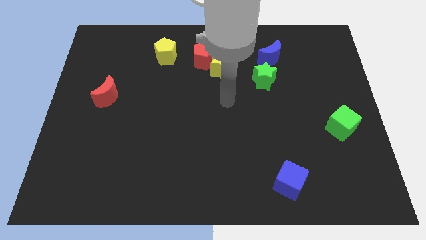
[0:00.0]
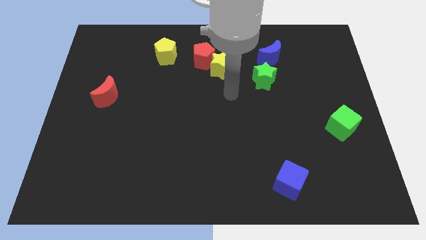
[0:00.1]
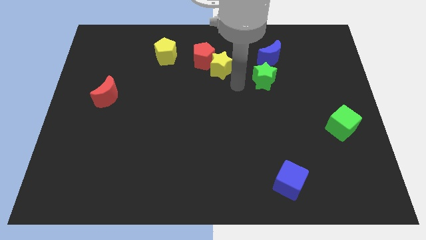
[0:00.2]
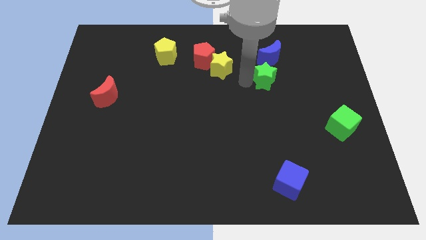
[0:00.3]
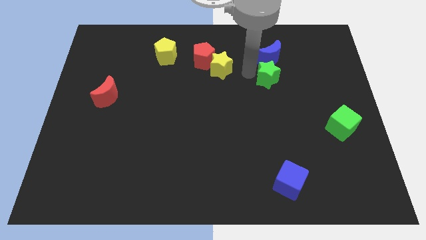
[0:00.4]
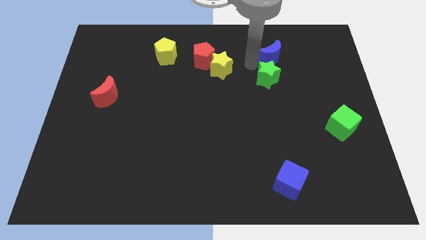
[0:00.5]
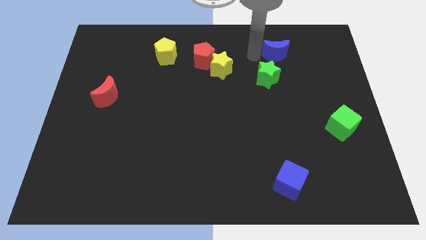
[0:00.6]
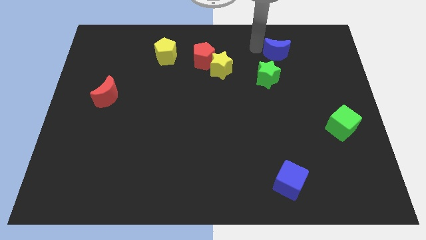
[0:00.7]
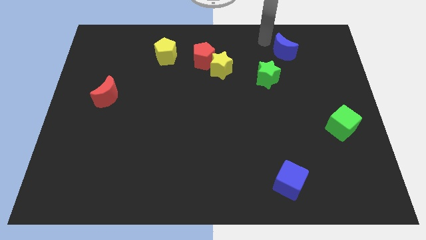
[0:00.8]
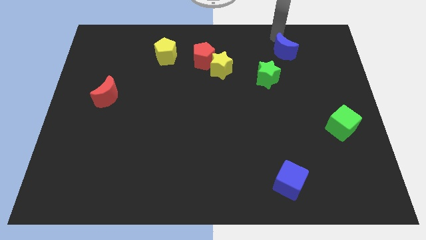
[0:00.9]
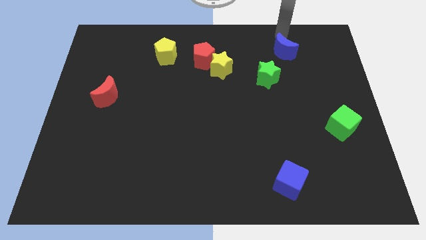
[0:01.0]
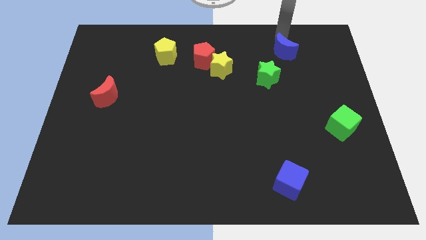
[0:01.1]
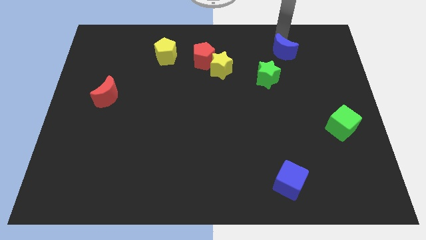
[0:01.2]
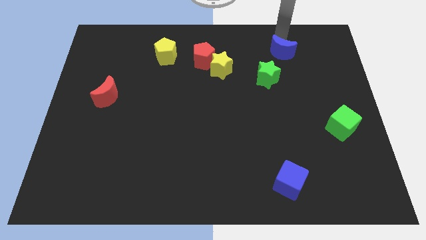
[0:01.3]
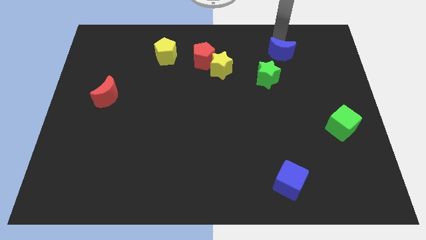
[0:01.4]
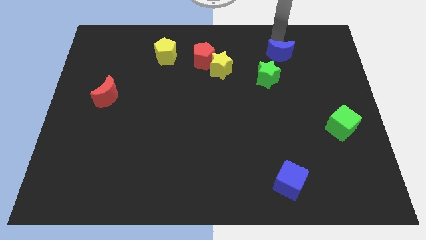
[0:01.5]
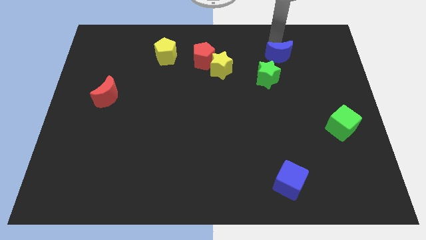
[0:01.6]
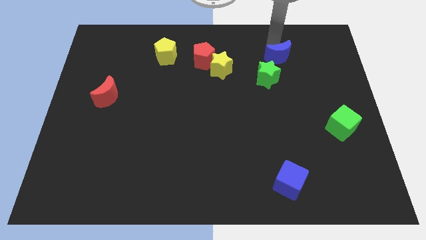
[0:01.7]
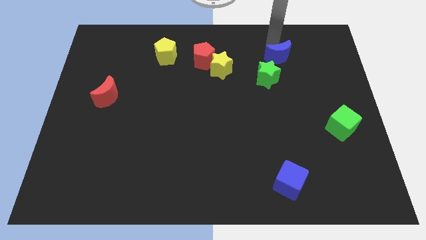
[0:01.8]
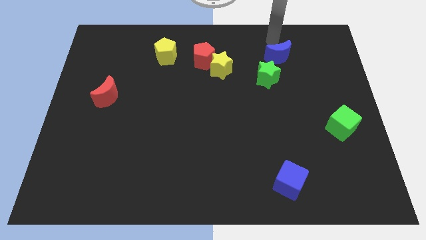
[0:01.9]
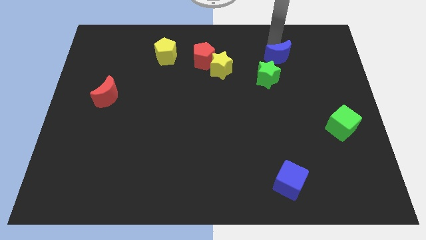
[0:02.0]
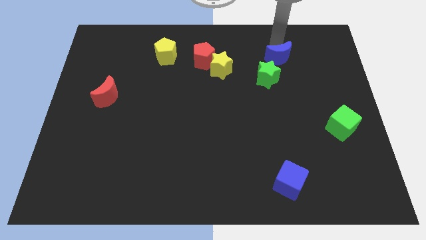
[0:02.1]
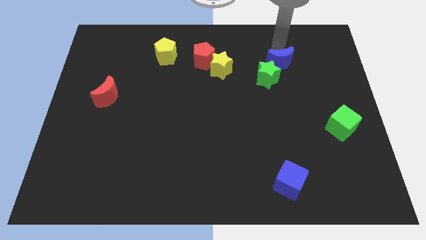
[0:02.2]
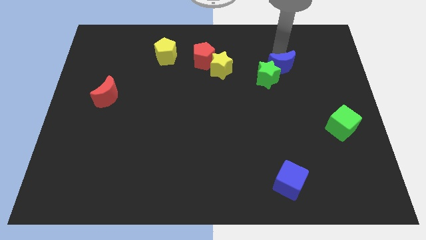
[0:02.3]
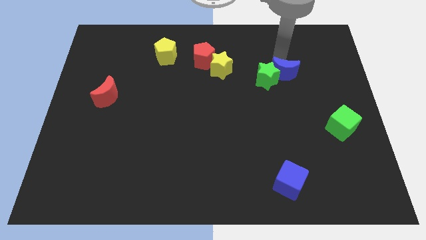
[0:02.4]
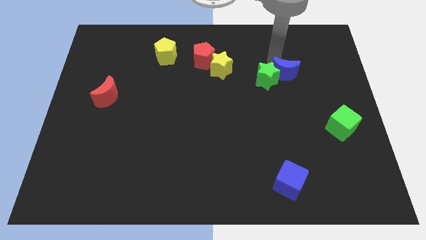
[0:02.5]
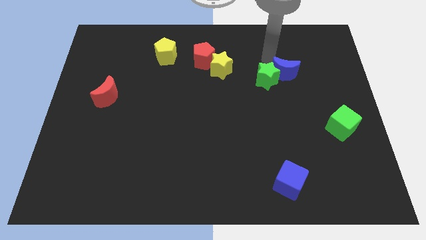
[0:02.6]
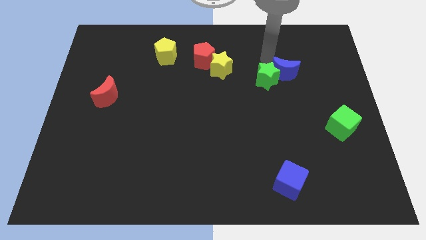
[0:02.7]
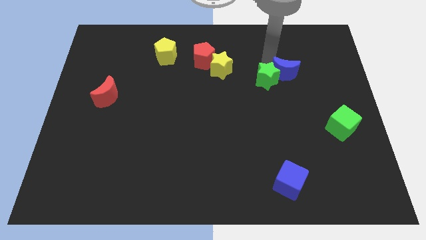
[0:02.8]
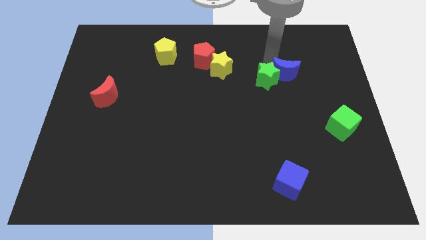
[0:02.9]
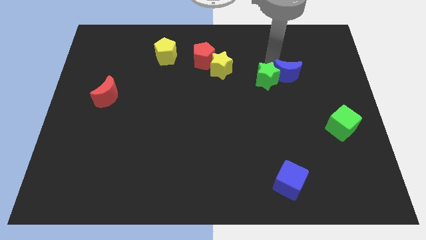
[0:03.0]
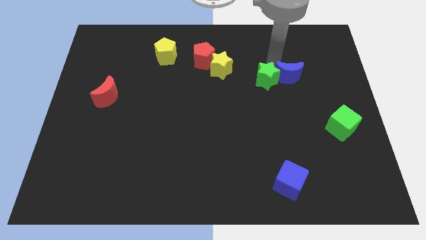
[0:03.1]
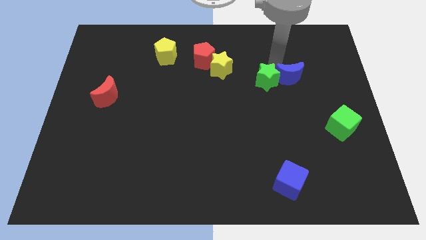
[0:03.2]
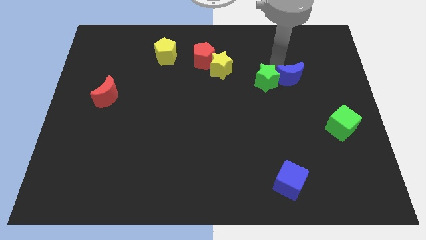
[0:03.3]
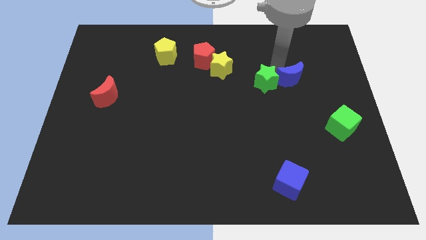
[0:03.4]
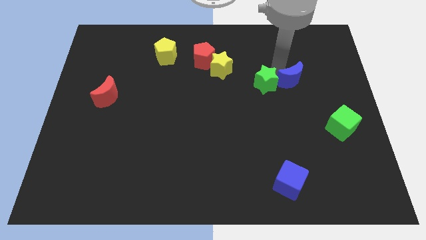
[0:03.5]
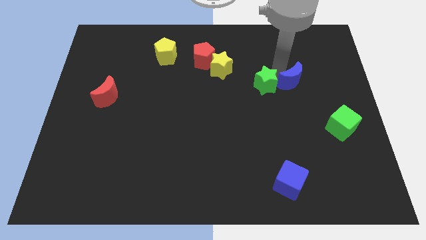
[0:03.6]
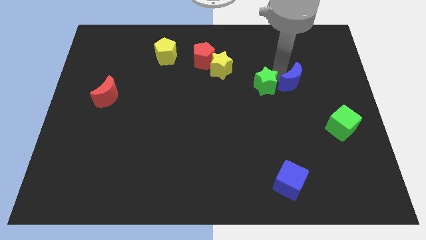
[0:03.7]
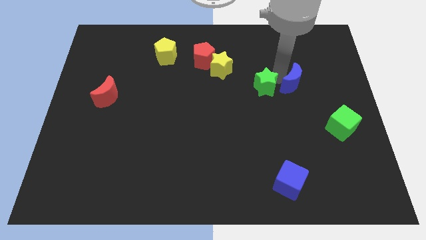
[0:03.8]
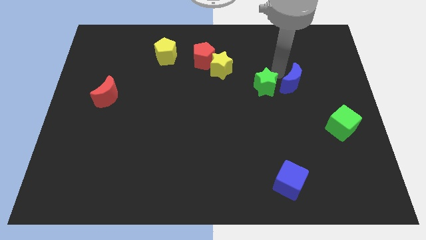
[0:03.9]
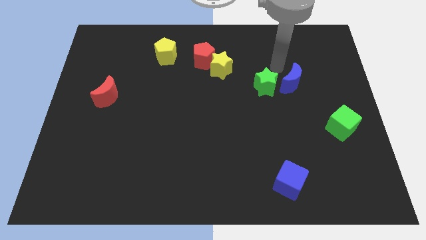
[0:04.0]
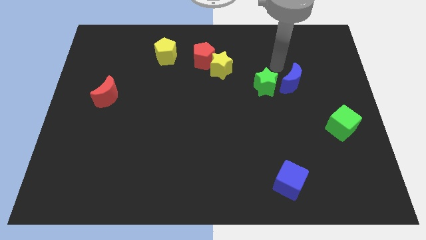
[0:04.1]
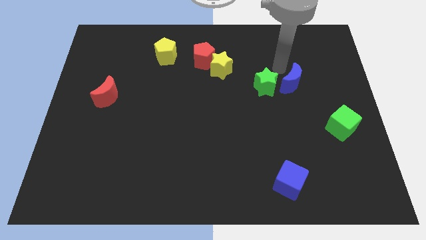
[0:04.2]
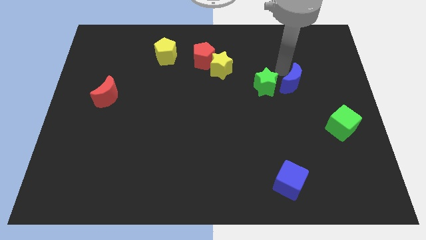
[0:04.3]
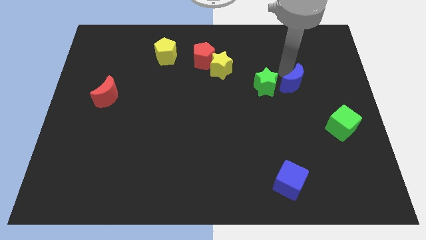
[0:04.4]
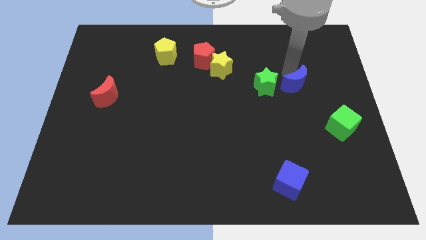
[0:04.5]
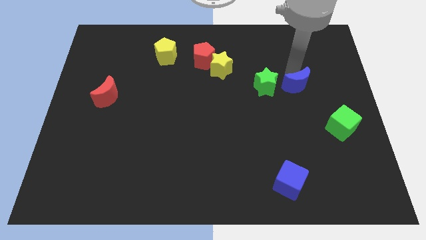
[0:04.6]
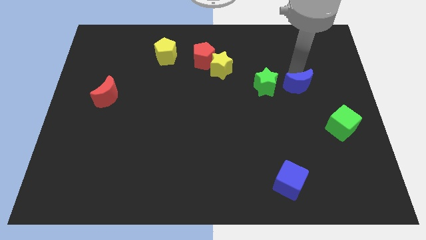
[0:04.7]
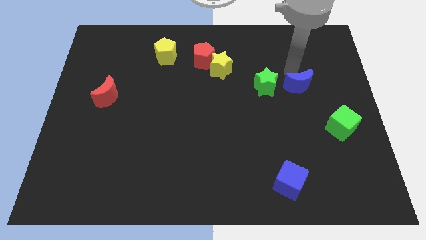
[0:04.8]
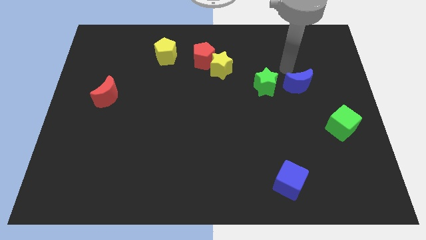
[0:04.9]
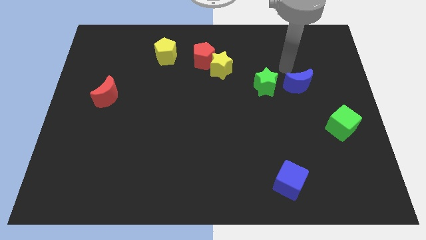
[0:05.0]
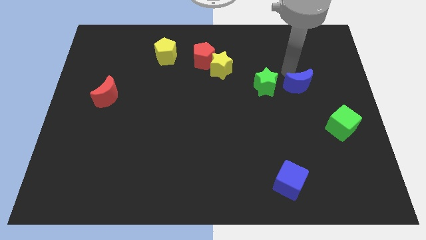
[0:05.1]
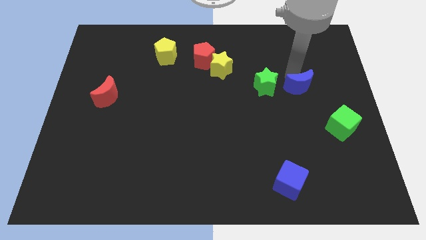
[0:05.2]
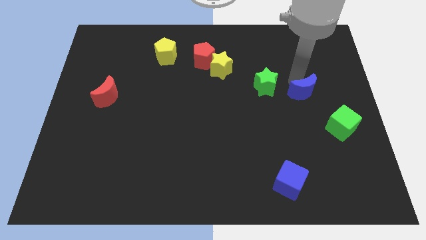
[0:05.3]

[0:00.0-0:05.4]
move the blue moon to the top left of the green cube

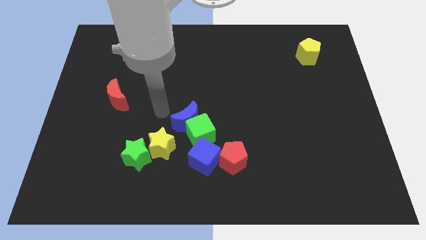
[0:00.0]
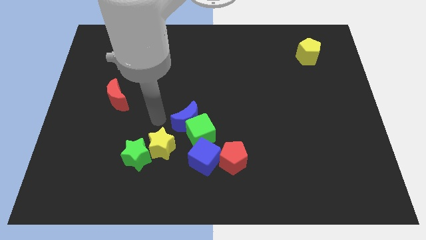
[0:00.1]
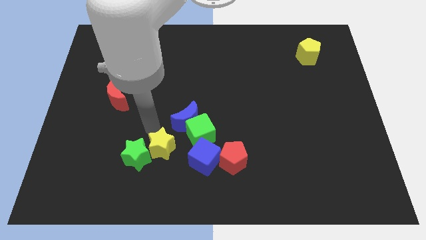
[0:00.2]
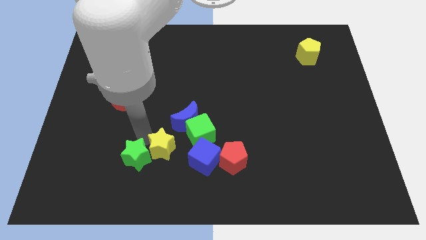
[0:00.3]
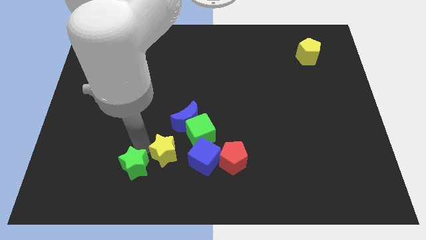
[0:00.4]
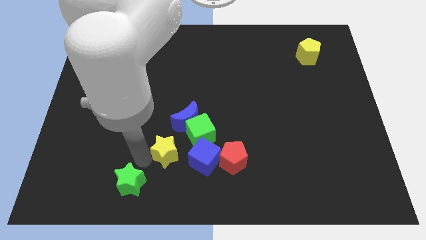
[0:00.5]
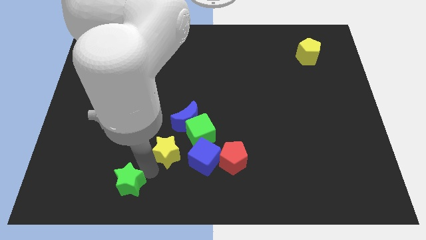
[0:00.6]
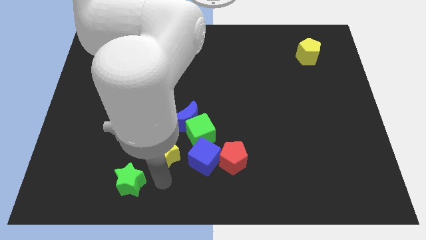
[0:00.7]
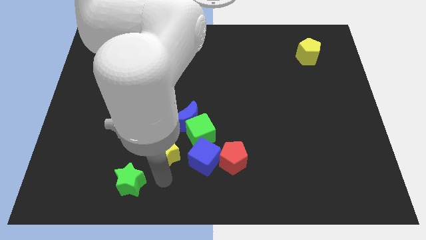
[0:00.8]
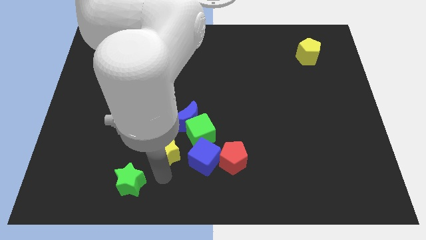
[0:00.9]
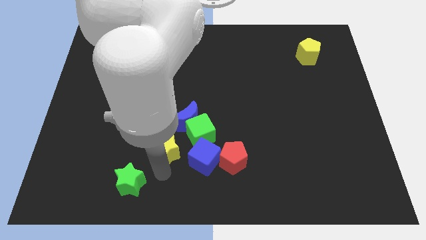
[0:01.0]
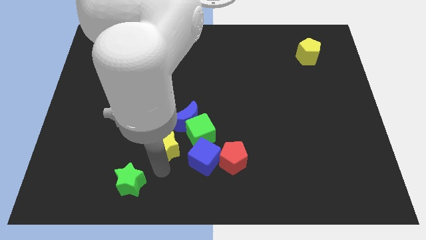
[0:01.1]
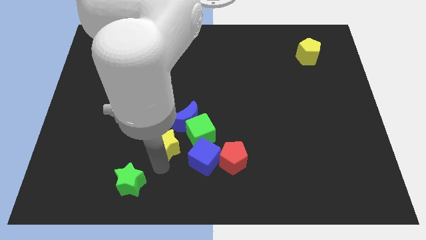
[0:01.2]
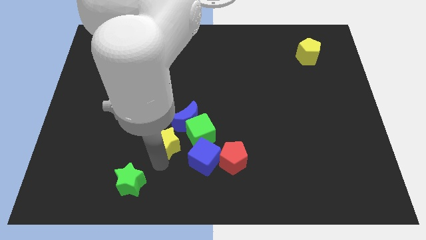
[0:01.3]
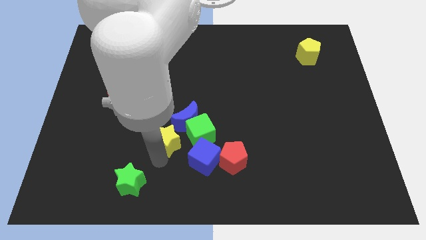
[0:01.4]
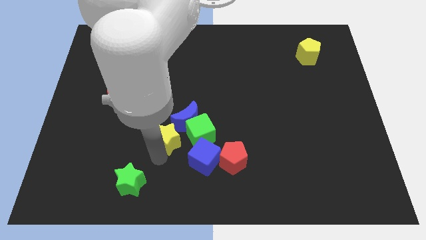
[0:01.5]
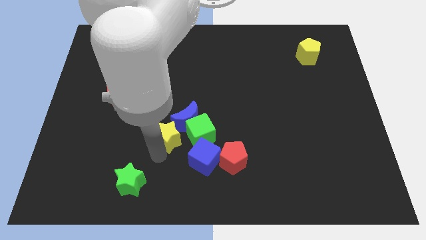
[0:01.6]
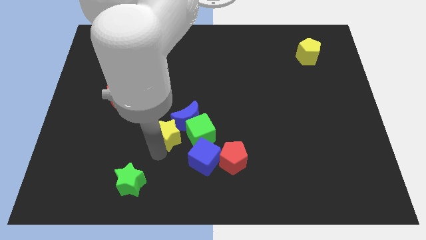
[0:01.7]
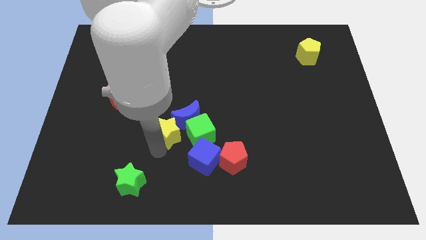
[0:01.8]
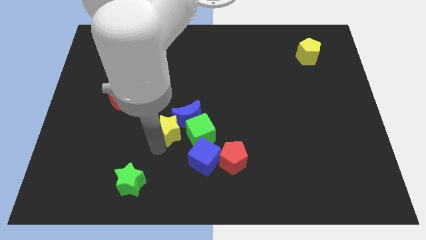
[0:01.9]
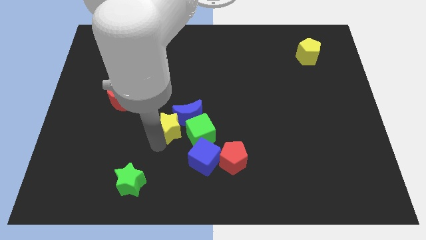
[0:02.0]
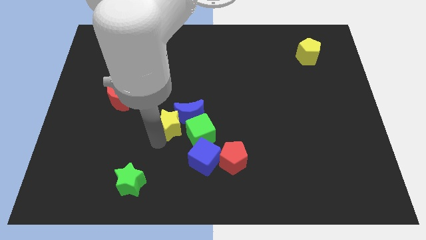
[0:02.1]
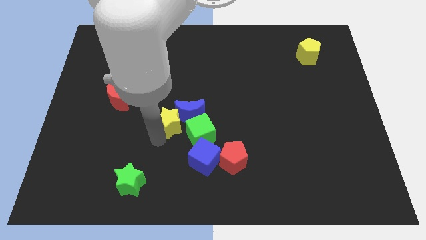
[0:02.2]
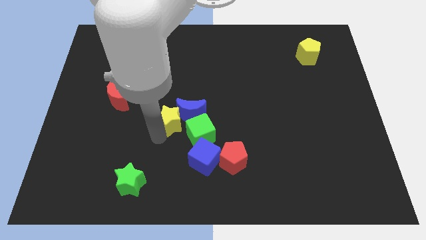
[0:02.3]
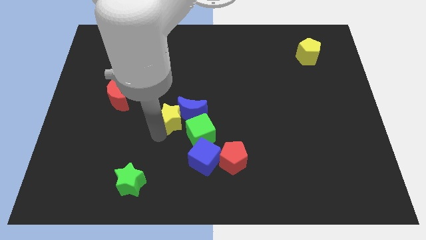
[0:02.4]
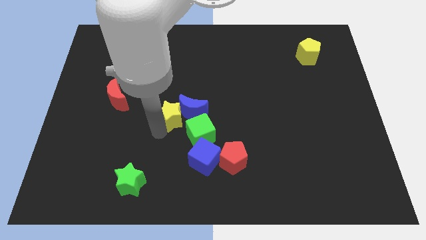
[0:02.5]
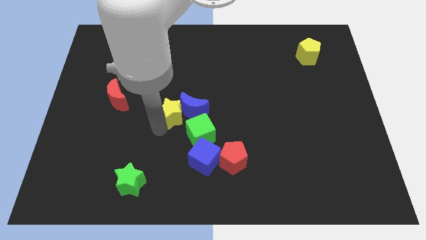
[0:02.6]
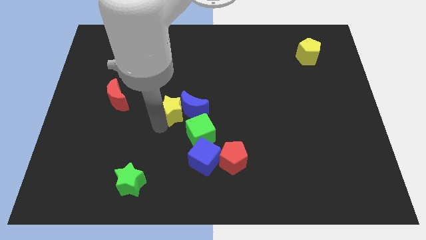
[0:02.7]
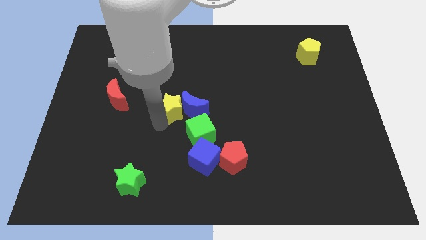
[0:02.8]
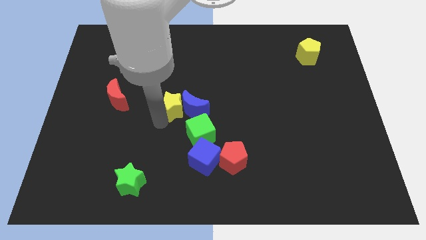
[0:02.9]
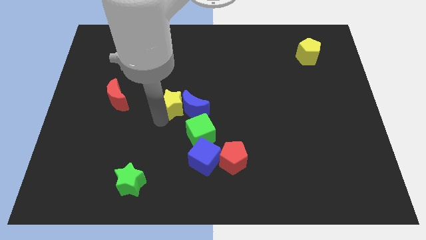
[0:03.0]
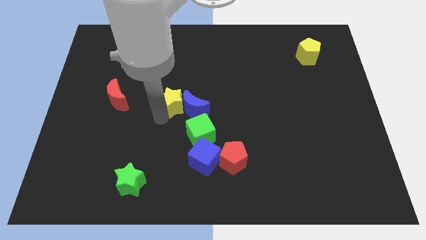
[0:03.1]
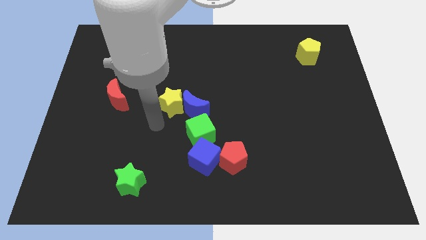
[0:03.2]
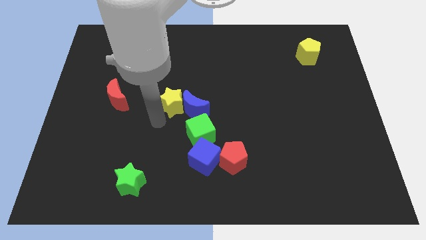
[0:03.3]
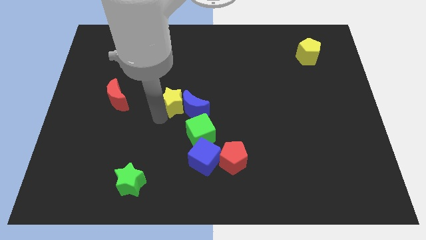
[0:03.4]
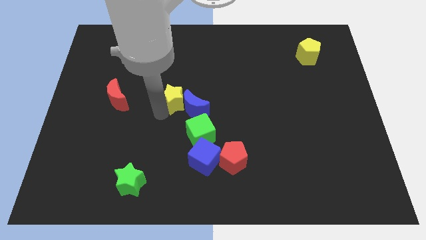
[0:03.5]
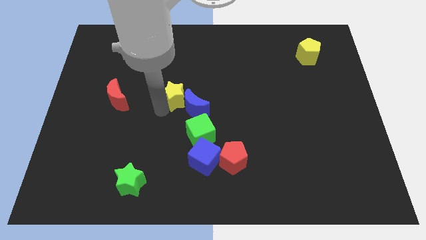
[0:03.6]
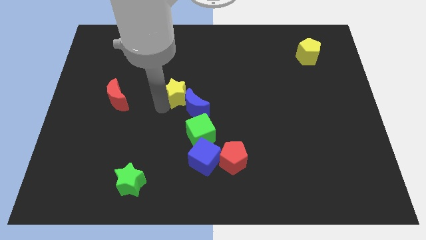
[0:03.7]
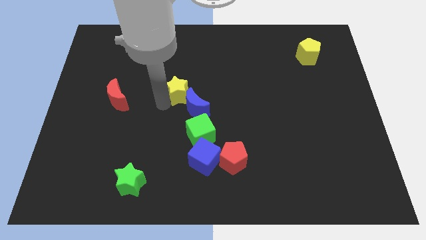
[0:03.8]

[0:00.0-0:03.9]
slide the yellow star above the blue moon
